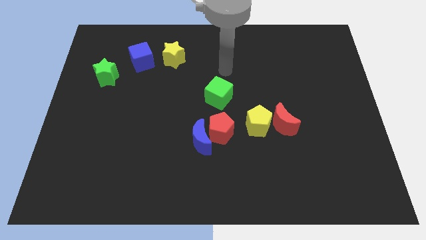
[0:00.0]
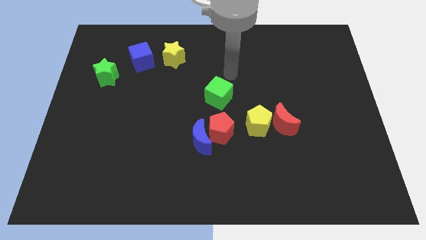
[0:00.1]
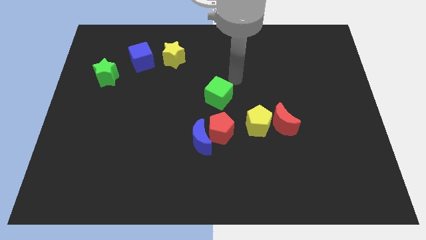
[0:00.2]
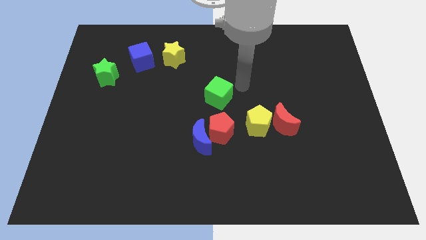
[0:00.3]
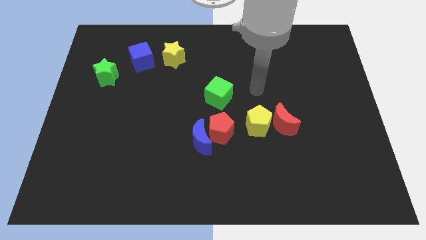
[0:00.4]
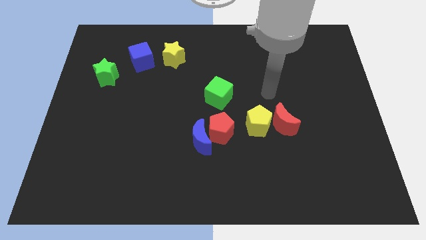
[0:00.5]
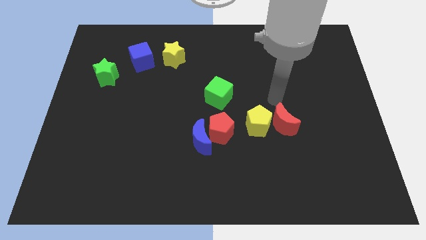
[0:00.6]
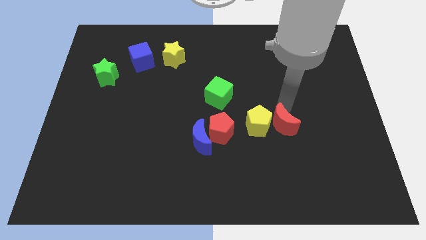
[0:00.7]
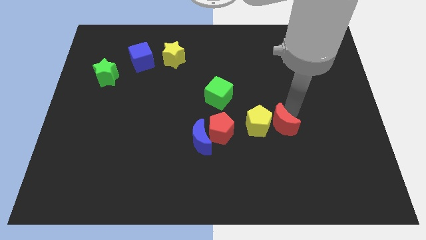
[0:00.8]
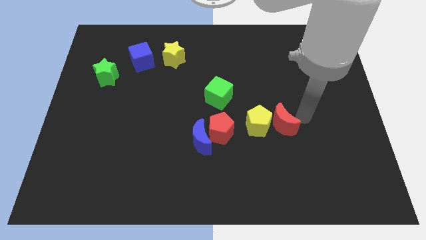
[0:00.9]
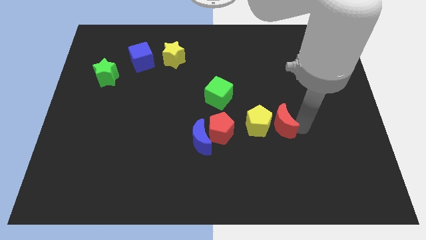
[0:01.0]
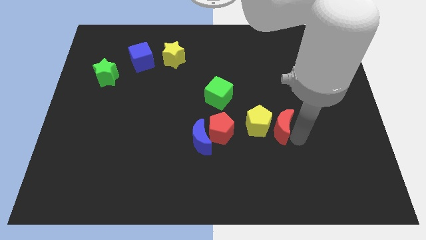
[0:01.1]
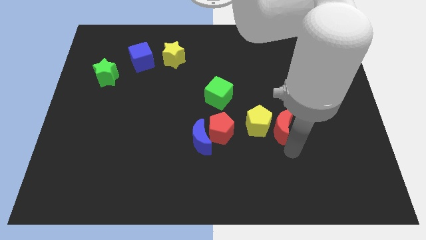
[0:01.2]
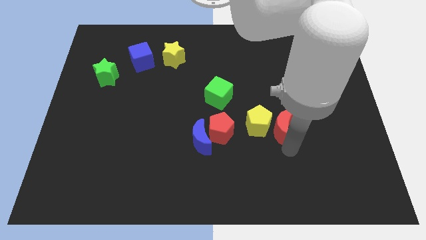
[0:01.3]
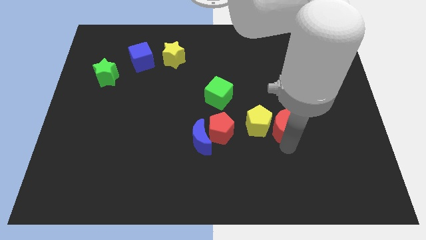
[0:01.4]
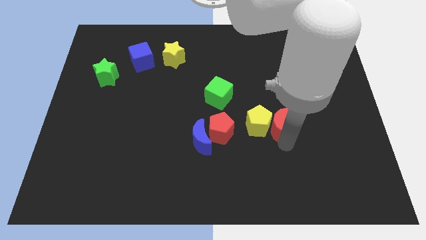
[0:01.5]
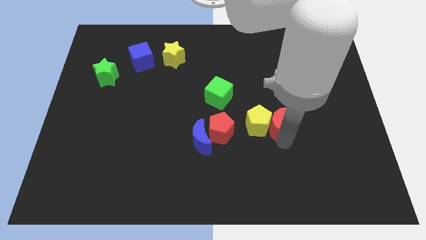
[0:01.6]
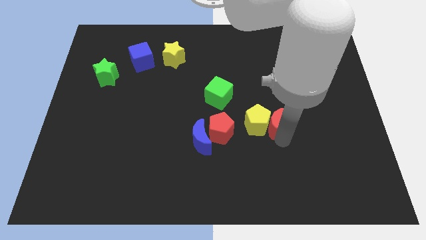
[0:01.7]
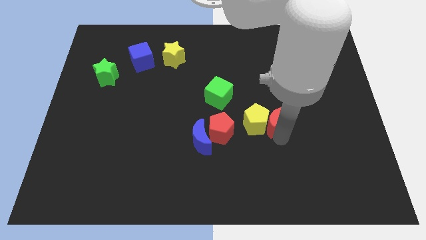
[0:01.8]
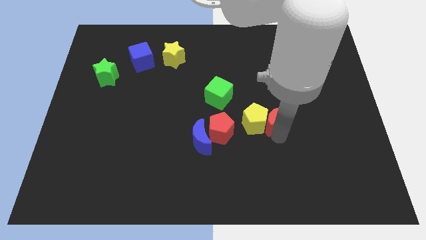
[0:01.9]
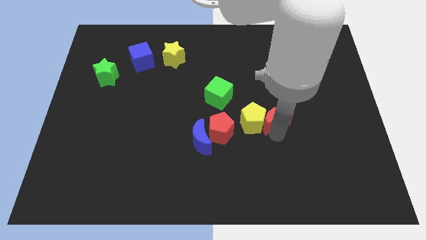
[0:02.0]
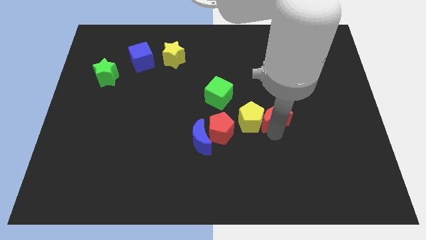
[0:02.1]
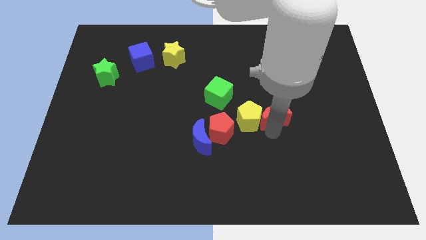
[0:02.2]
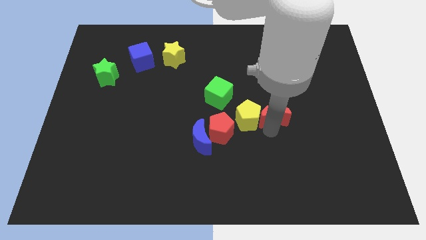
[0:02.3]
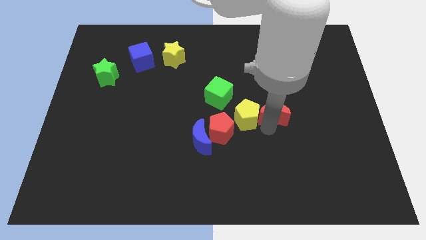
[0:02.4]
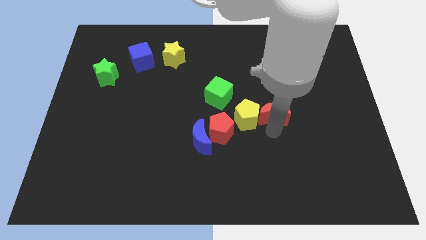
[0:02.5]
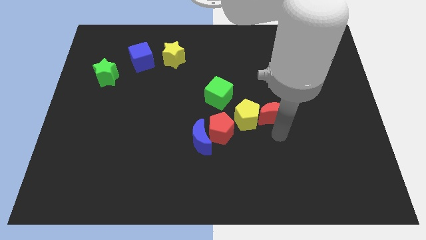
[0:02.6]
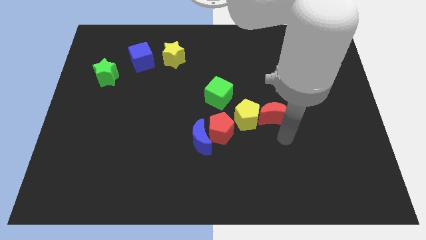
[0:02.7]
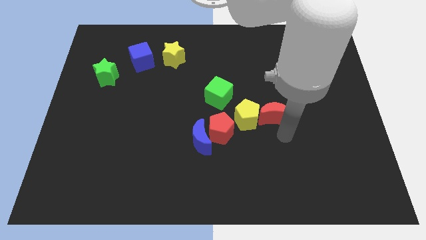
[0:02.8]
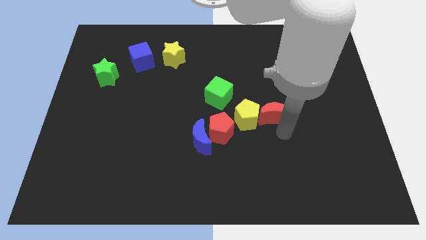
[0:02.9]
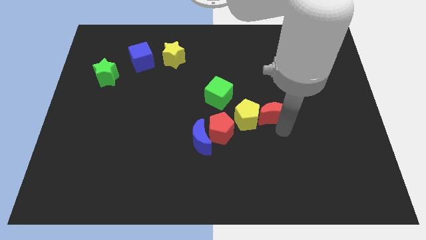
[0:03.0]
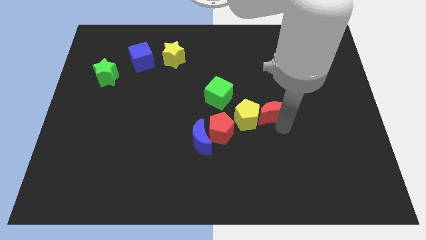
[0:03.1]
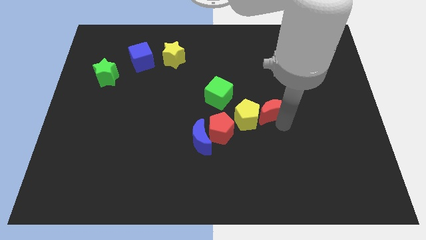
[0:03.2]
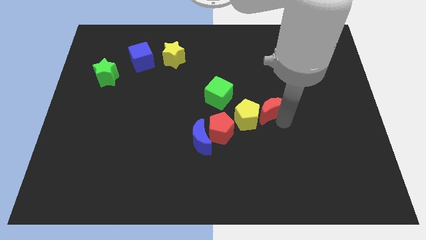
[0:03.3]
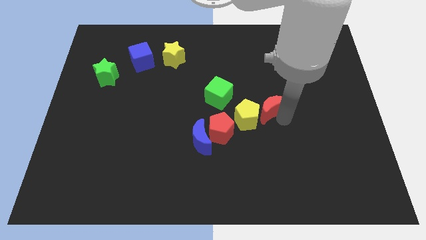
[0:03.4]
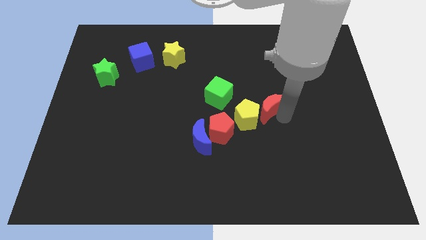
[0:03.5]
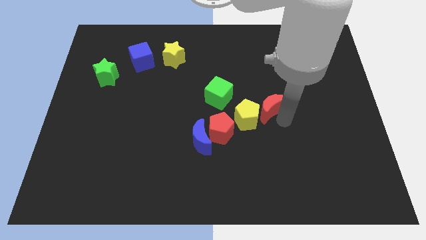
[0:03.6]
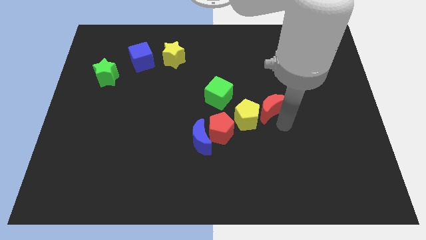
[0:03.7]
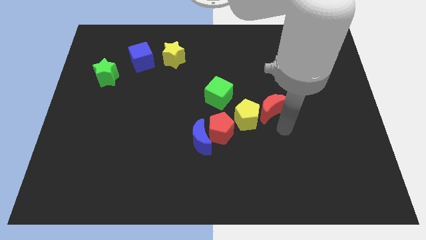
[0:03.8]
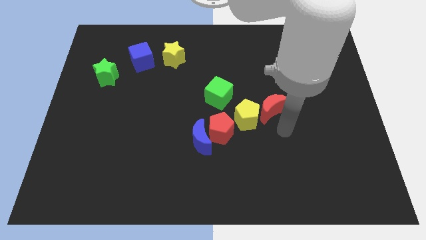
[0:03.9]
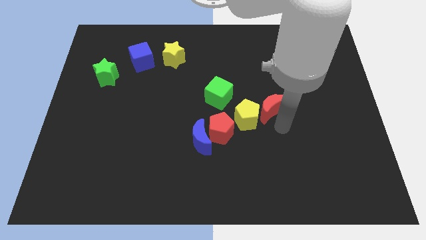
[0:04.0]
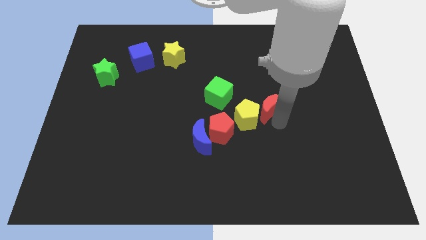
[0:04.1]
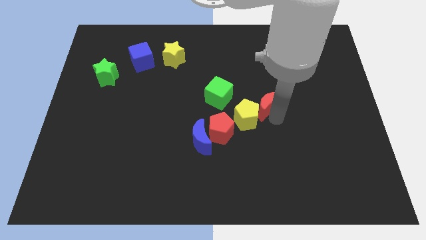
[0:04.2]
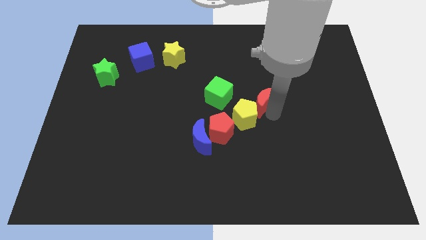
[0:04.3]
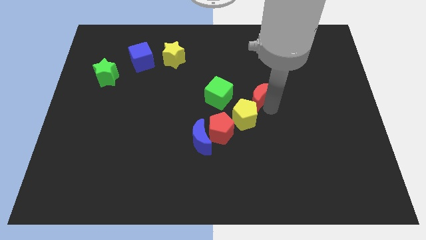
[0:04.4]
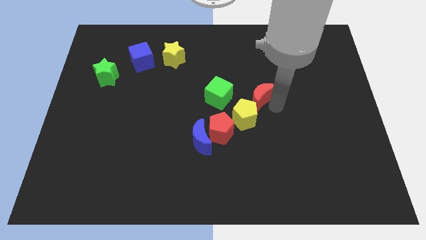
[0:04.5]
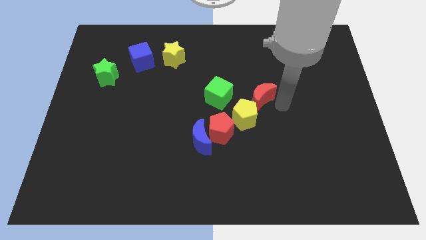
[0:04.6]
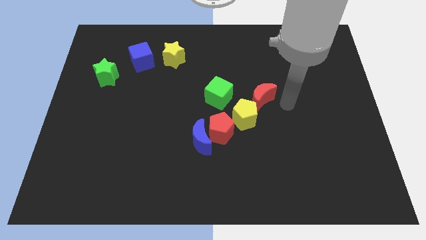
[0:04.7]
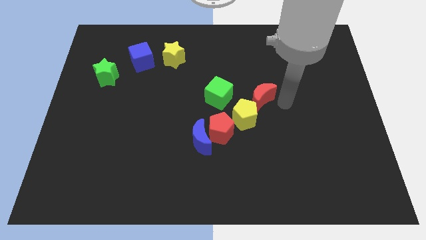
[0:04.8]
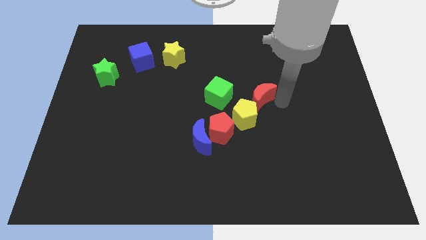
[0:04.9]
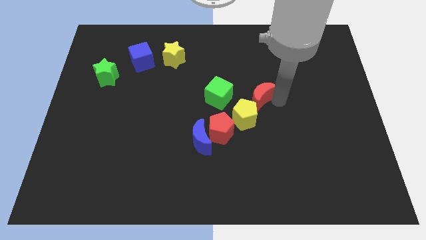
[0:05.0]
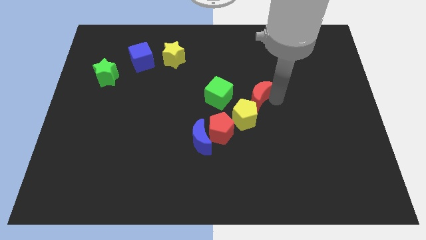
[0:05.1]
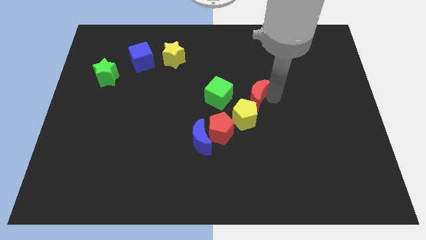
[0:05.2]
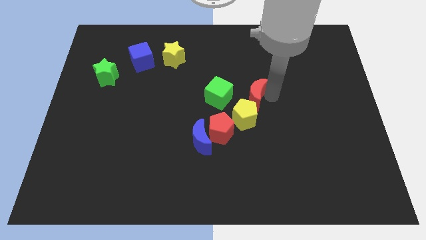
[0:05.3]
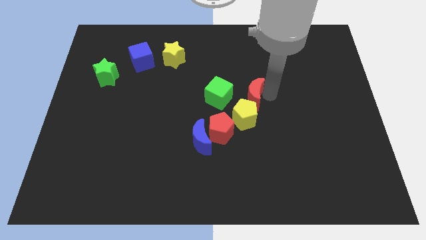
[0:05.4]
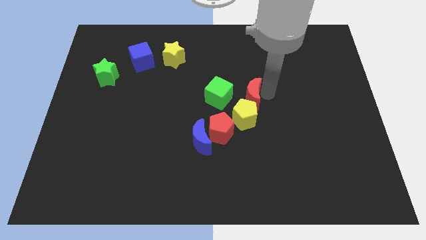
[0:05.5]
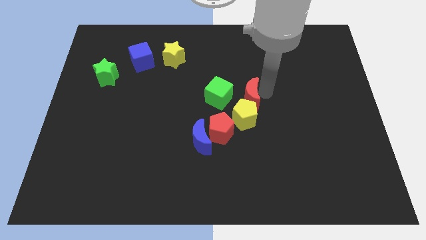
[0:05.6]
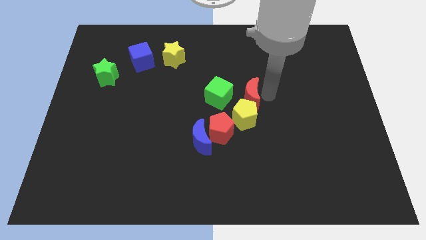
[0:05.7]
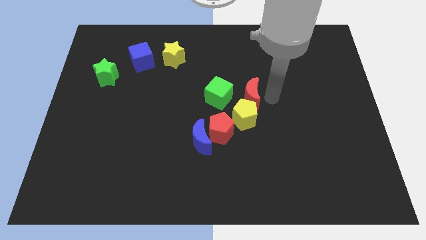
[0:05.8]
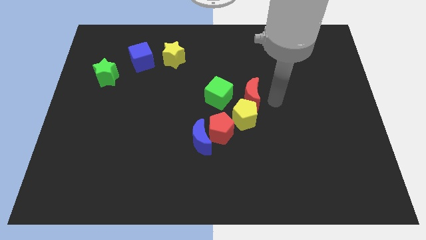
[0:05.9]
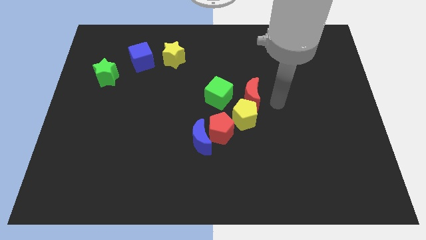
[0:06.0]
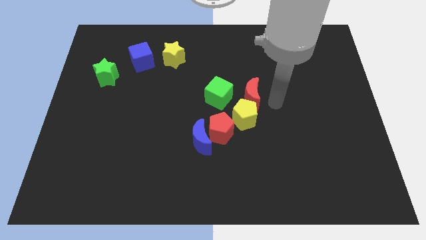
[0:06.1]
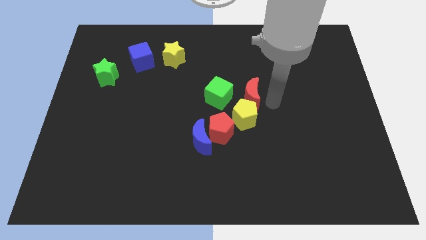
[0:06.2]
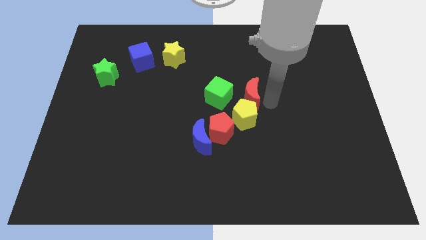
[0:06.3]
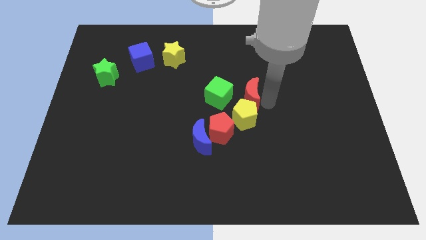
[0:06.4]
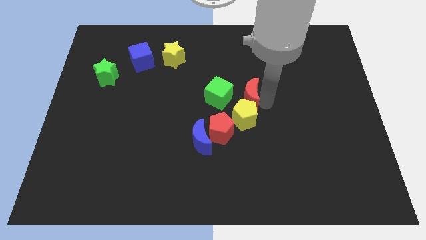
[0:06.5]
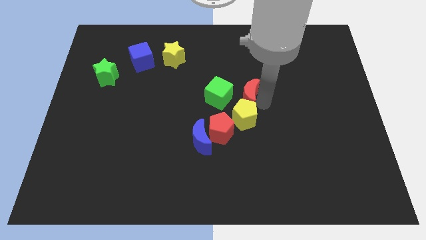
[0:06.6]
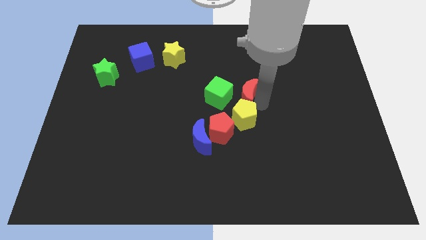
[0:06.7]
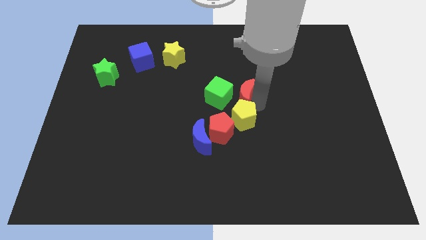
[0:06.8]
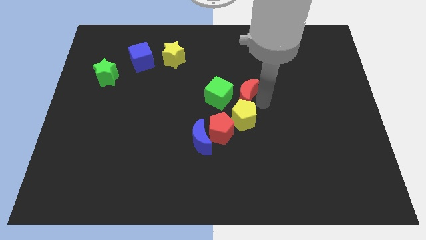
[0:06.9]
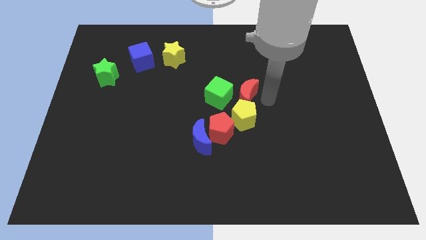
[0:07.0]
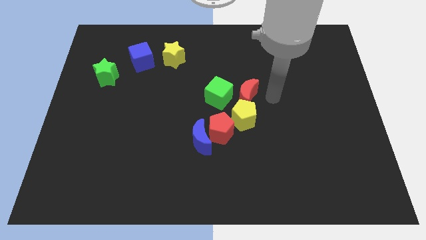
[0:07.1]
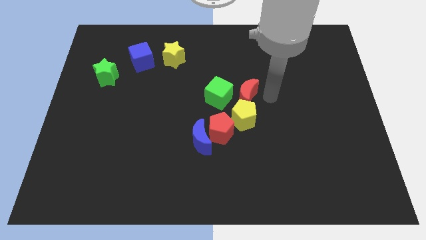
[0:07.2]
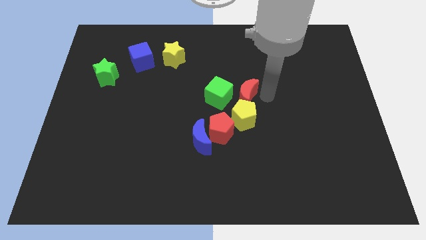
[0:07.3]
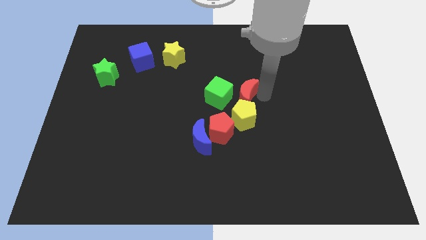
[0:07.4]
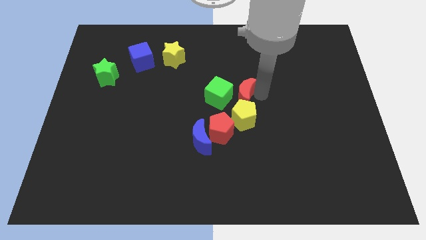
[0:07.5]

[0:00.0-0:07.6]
slide the red moon to the green cube
